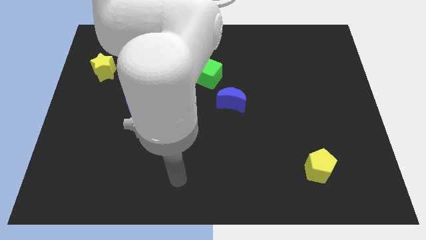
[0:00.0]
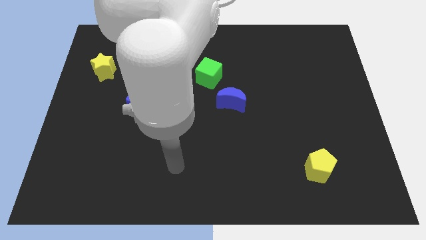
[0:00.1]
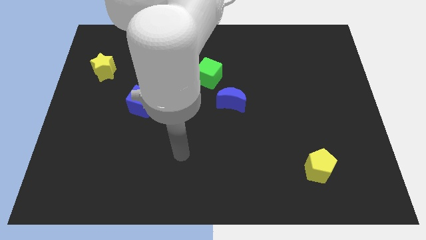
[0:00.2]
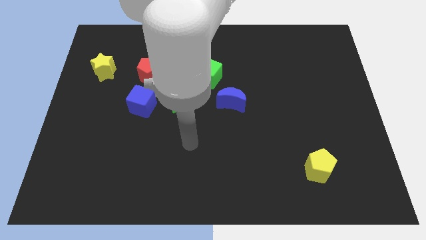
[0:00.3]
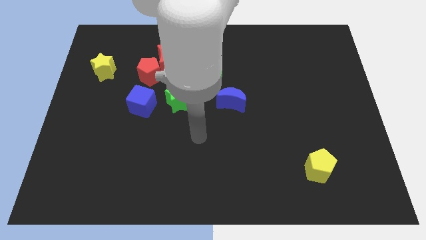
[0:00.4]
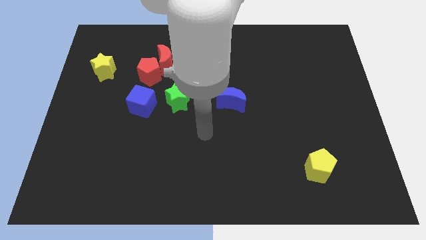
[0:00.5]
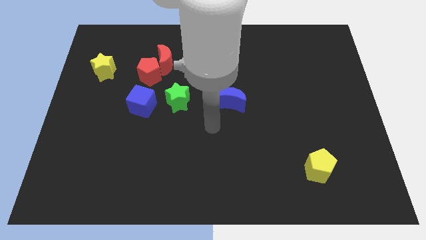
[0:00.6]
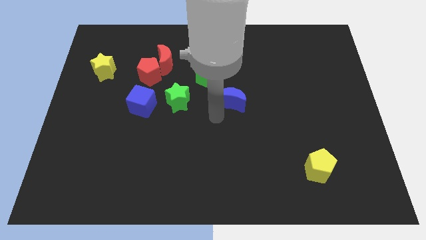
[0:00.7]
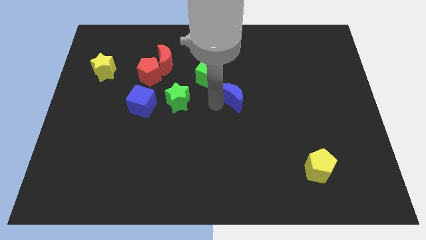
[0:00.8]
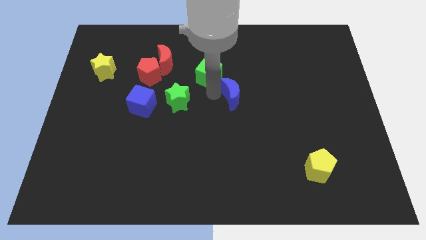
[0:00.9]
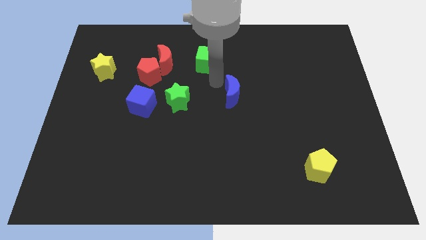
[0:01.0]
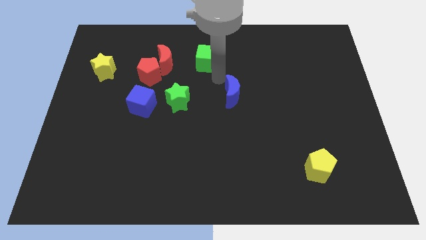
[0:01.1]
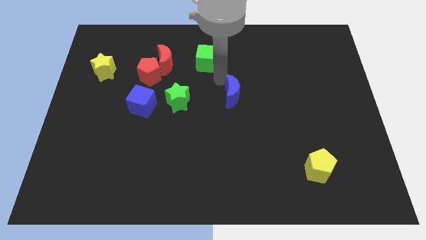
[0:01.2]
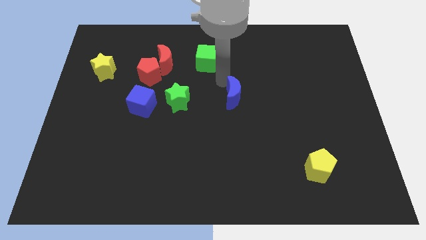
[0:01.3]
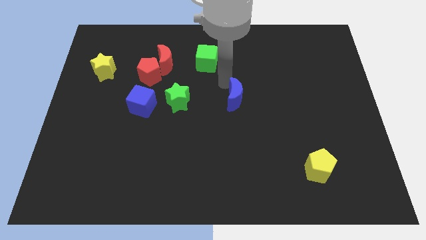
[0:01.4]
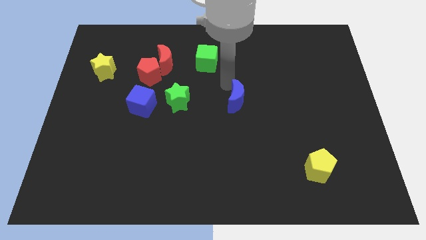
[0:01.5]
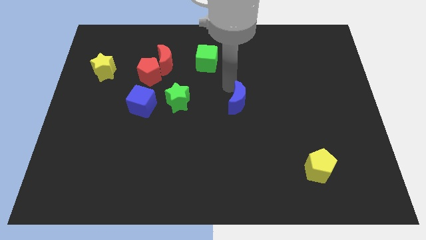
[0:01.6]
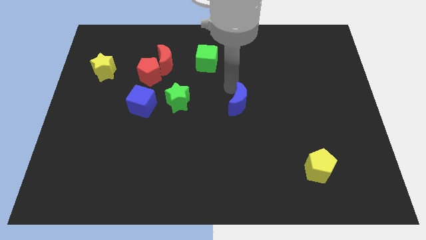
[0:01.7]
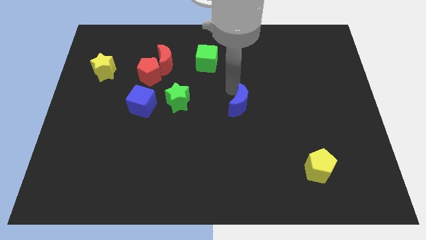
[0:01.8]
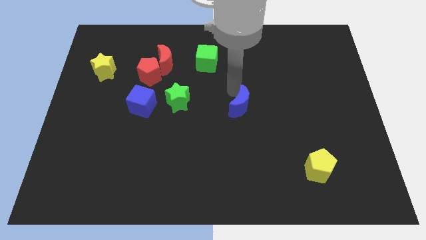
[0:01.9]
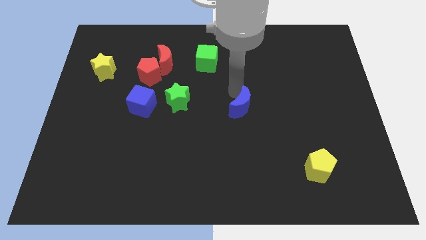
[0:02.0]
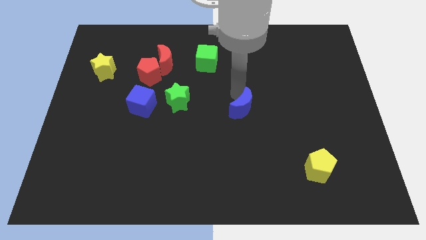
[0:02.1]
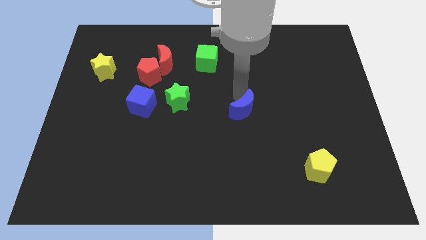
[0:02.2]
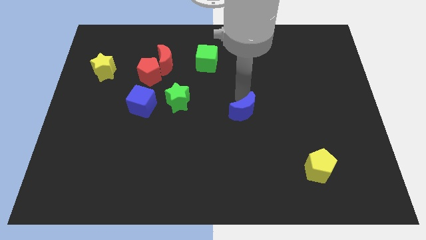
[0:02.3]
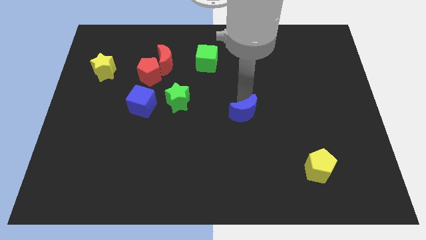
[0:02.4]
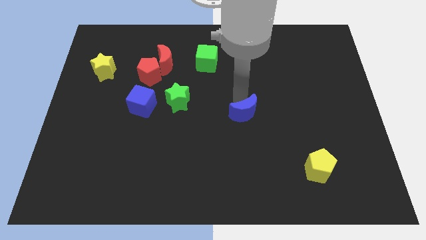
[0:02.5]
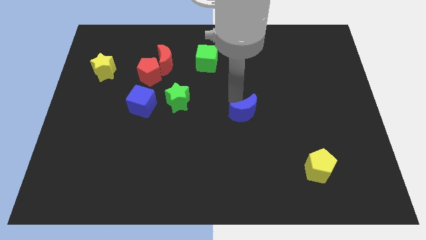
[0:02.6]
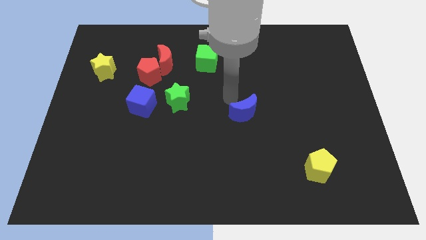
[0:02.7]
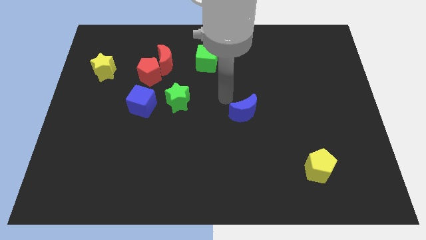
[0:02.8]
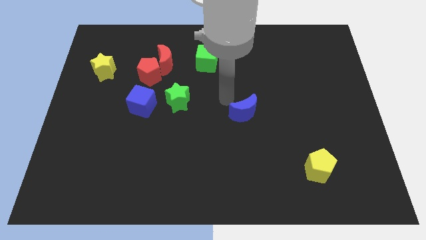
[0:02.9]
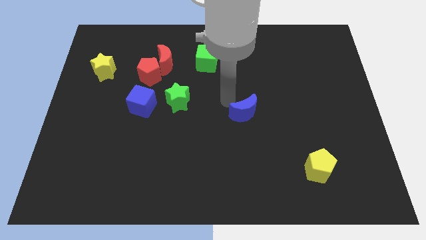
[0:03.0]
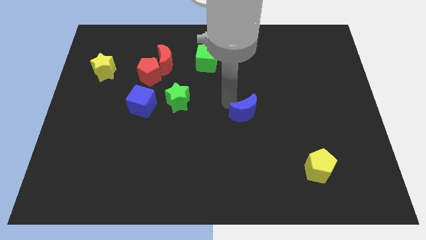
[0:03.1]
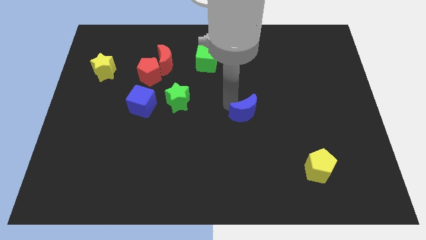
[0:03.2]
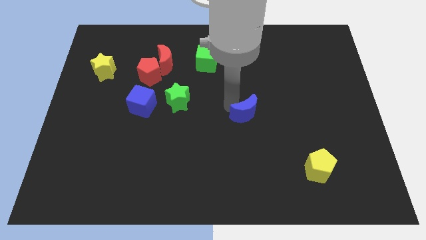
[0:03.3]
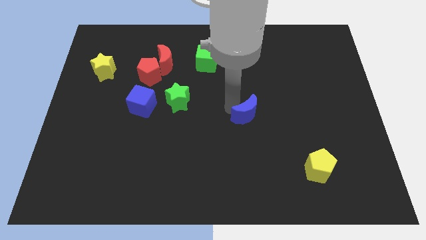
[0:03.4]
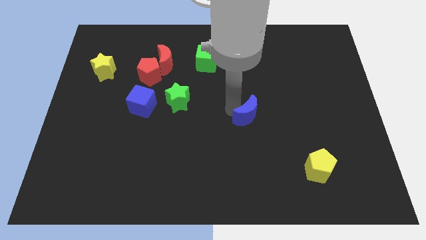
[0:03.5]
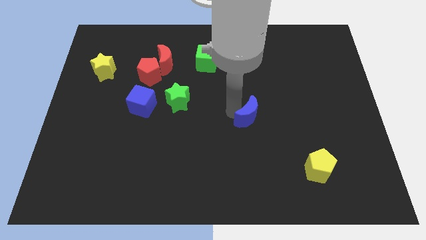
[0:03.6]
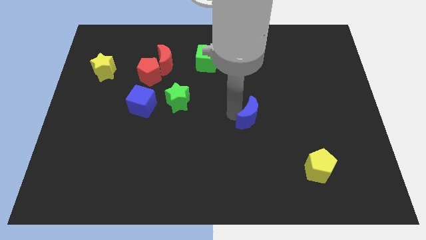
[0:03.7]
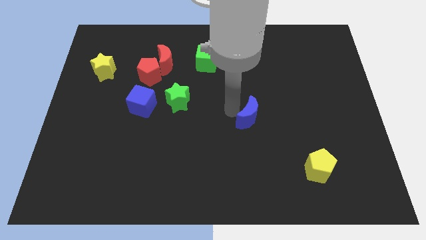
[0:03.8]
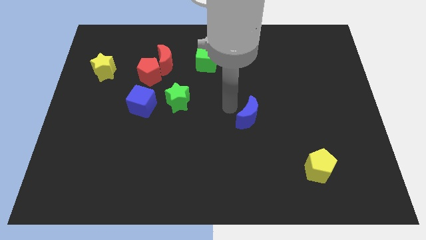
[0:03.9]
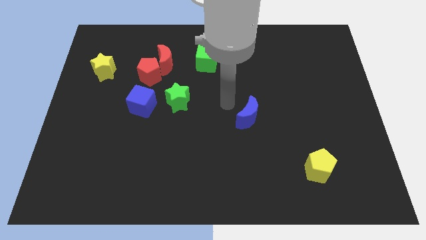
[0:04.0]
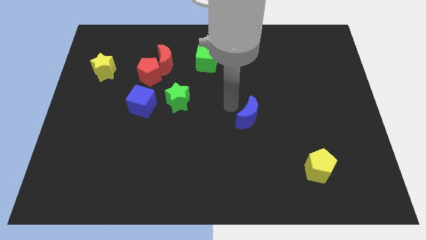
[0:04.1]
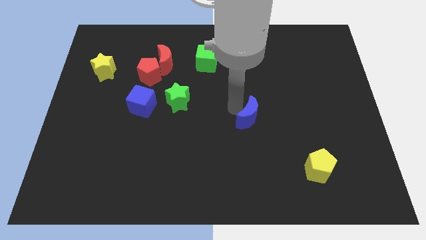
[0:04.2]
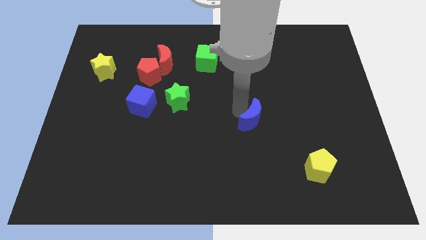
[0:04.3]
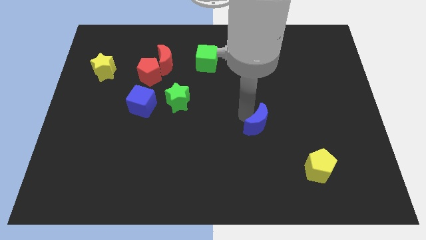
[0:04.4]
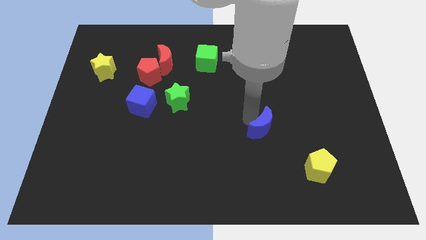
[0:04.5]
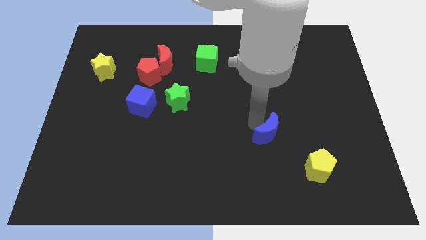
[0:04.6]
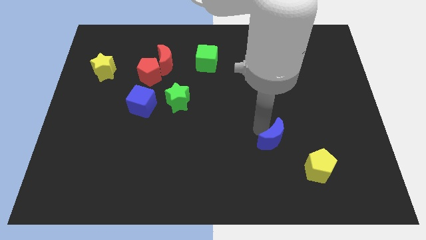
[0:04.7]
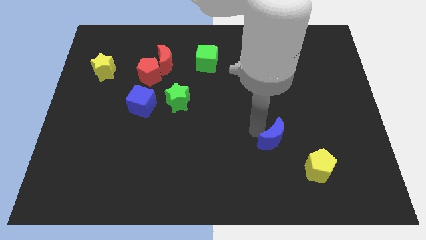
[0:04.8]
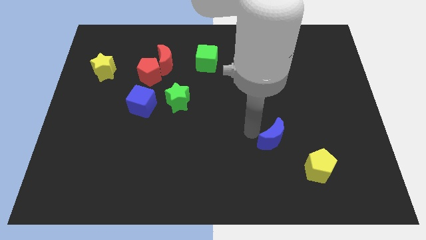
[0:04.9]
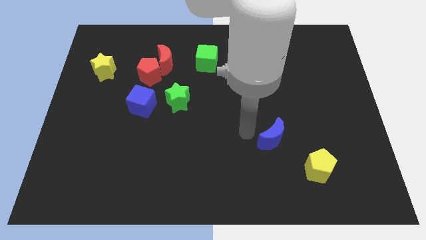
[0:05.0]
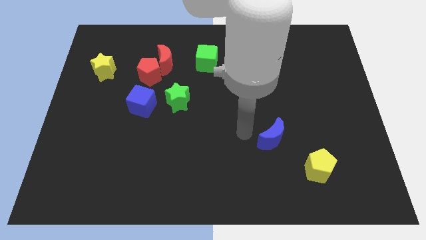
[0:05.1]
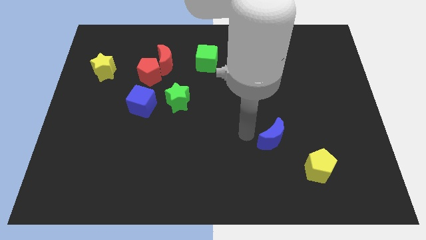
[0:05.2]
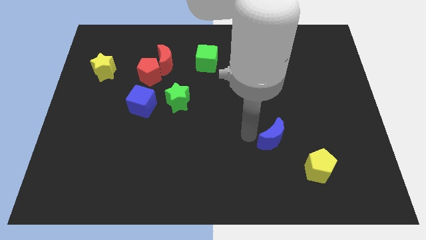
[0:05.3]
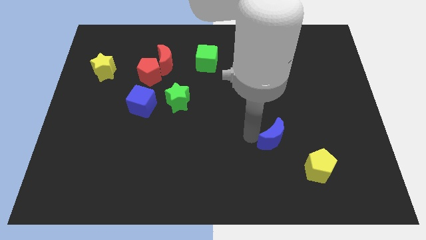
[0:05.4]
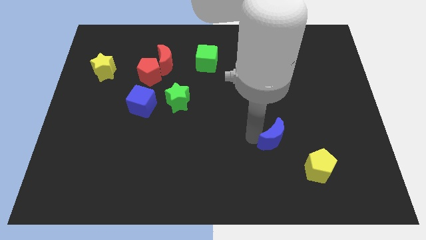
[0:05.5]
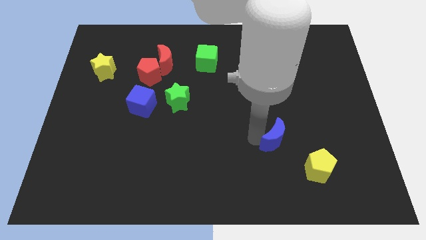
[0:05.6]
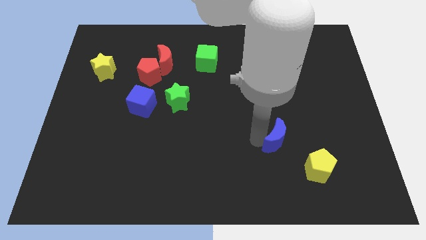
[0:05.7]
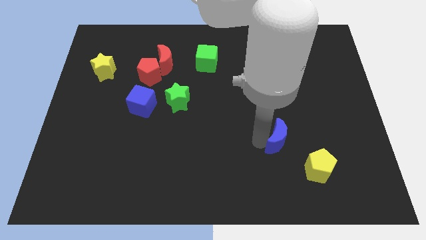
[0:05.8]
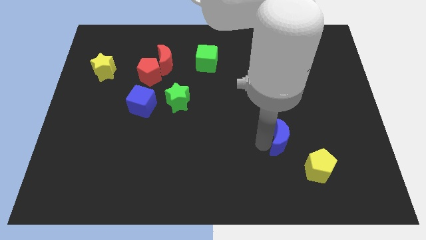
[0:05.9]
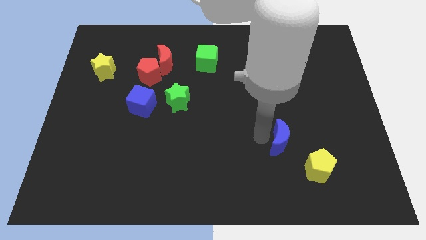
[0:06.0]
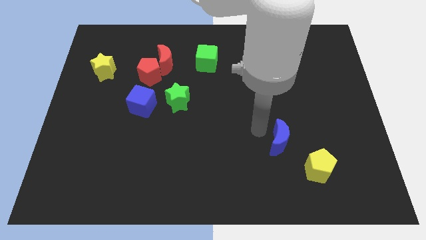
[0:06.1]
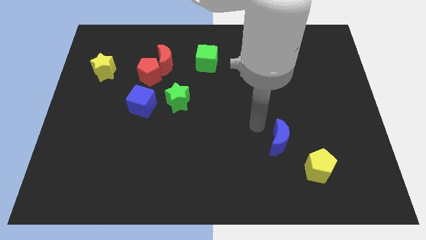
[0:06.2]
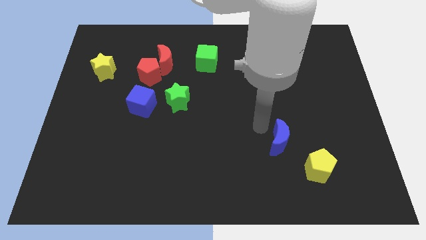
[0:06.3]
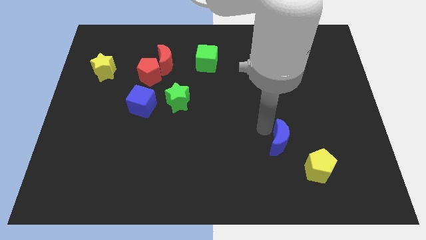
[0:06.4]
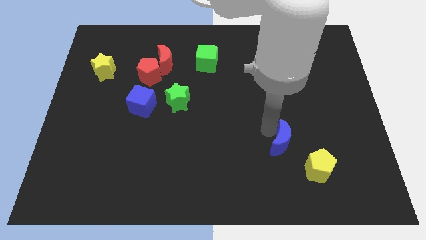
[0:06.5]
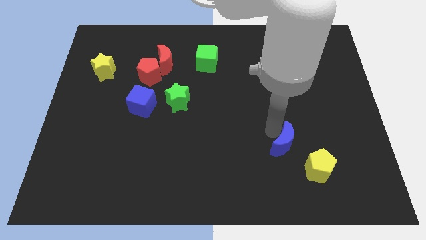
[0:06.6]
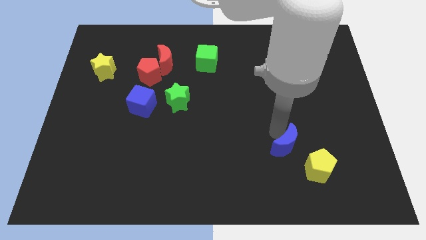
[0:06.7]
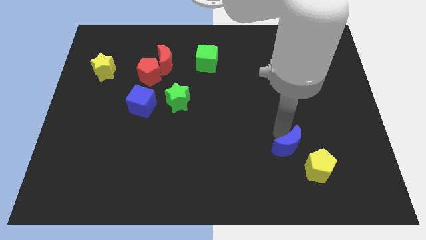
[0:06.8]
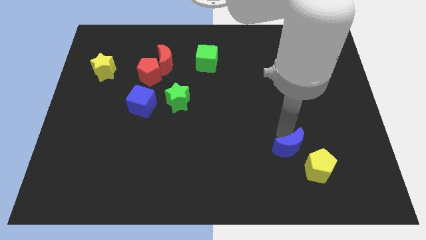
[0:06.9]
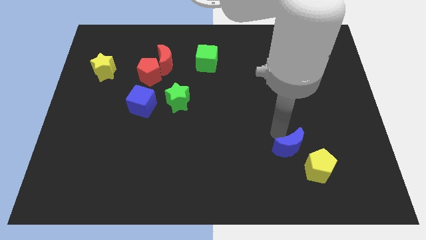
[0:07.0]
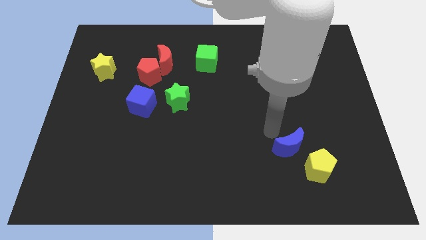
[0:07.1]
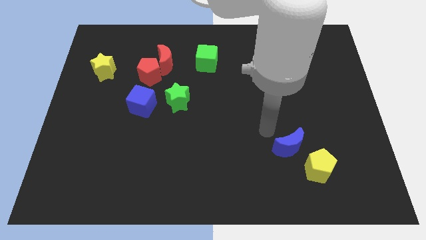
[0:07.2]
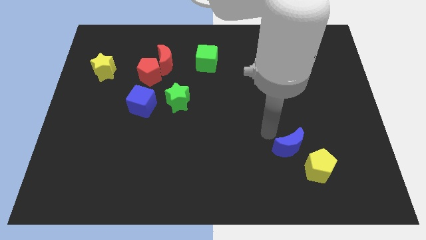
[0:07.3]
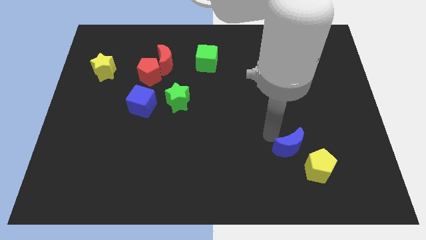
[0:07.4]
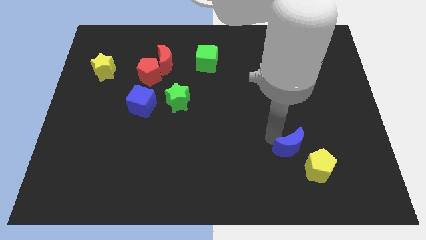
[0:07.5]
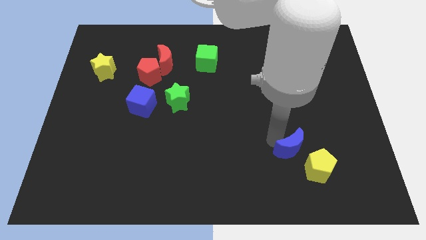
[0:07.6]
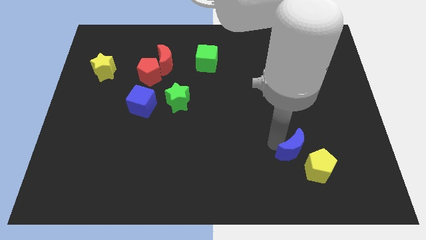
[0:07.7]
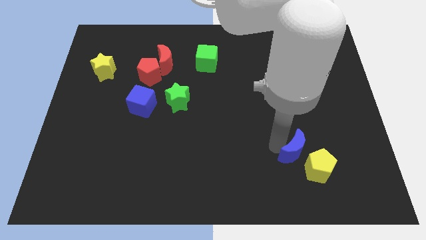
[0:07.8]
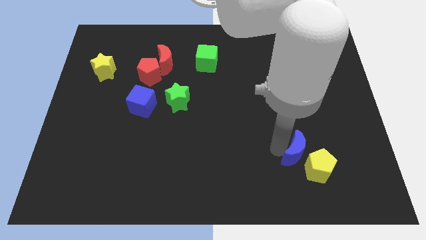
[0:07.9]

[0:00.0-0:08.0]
put the blue moon next to the yellow pentagon
